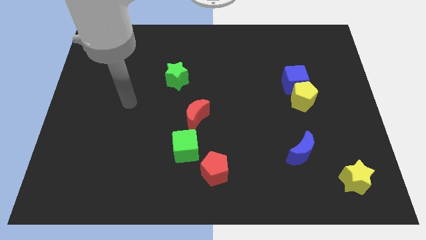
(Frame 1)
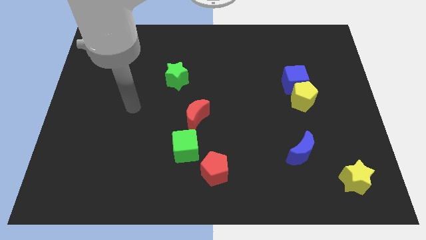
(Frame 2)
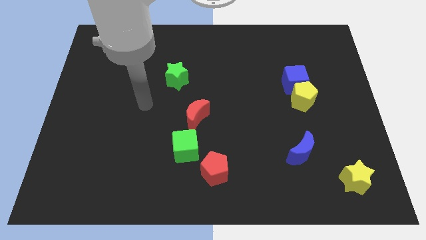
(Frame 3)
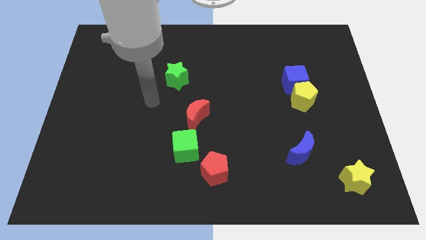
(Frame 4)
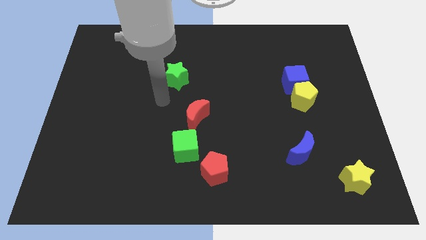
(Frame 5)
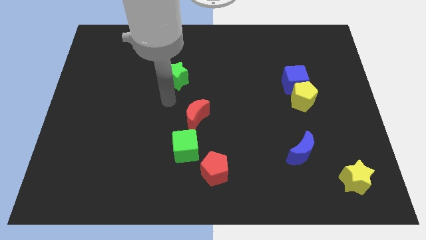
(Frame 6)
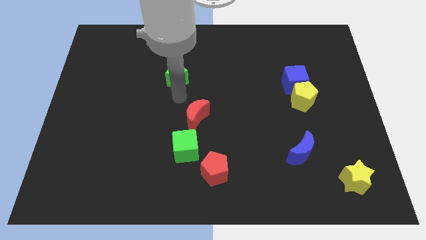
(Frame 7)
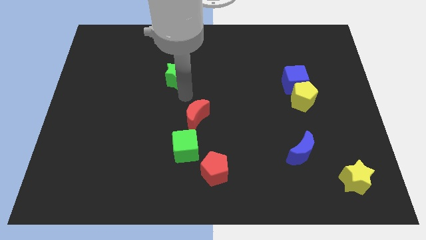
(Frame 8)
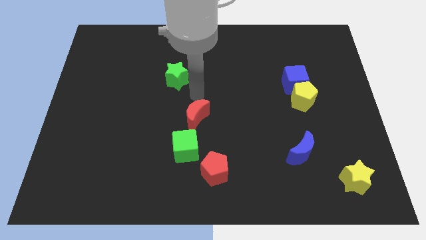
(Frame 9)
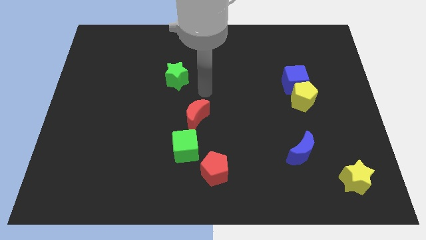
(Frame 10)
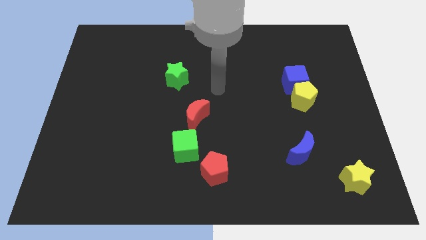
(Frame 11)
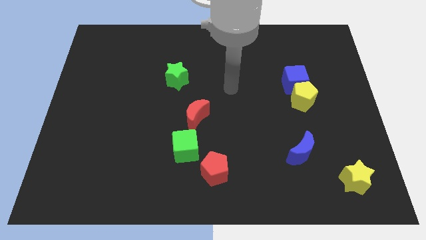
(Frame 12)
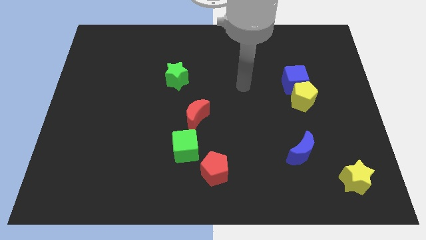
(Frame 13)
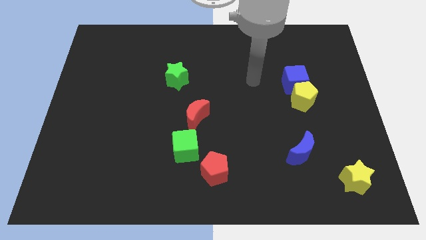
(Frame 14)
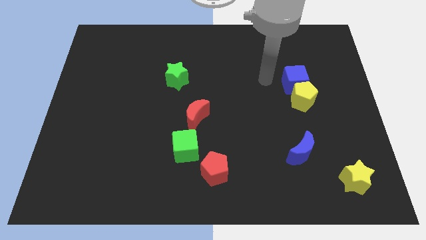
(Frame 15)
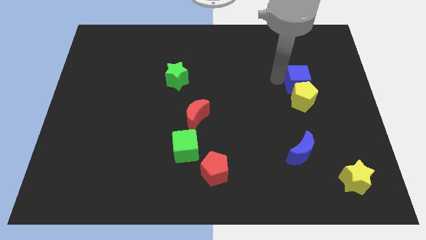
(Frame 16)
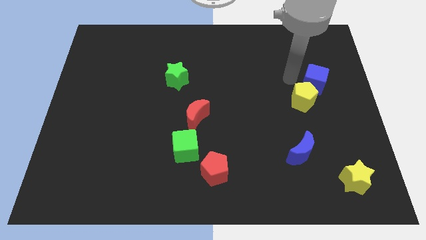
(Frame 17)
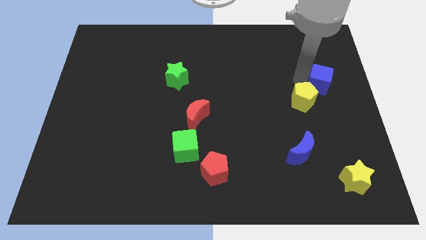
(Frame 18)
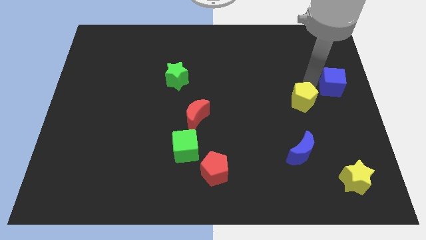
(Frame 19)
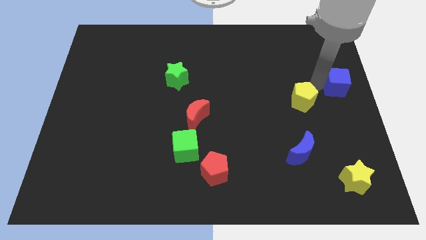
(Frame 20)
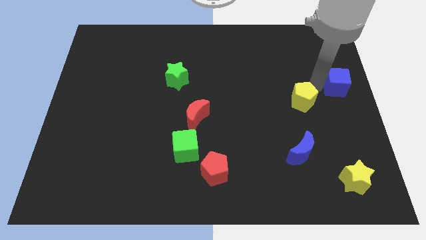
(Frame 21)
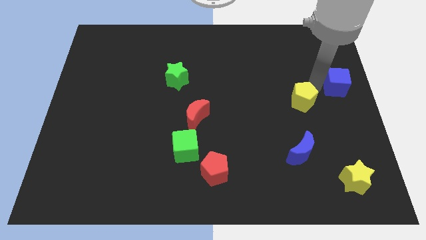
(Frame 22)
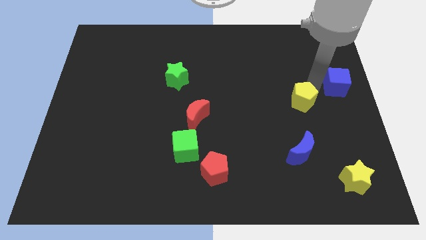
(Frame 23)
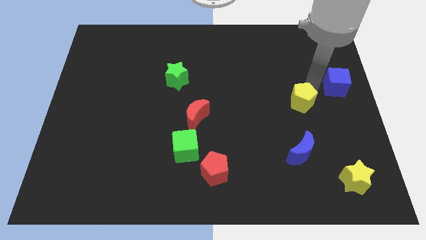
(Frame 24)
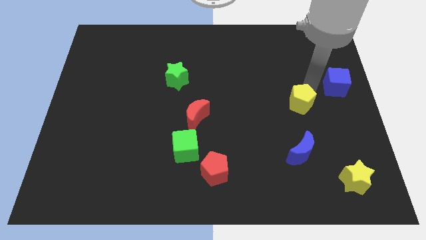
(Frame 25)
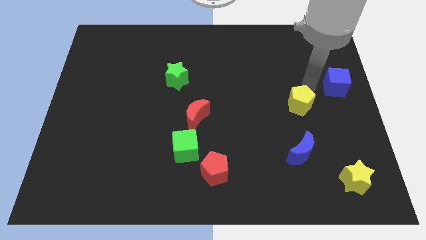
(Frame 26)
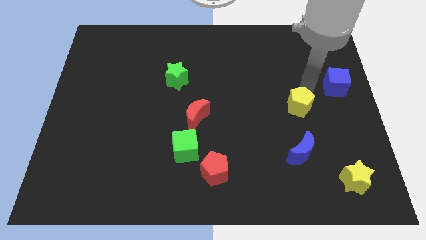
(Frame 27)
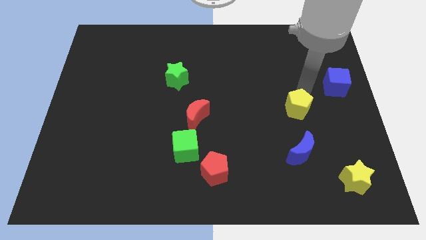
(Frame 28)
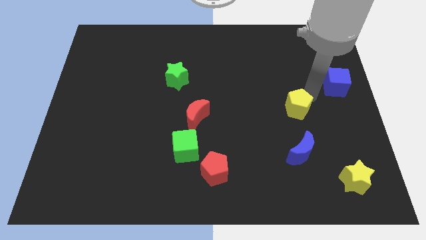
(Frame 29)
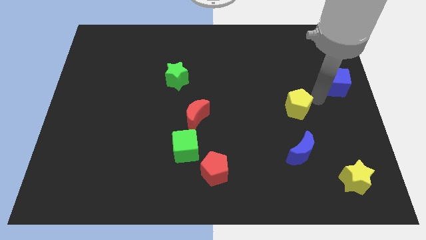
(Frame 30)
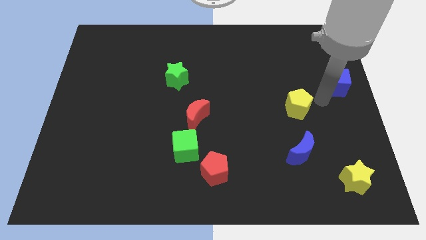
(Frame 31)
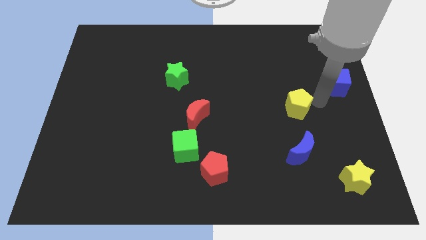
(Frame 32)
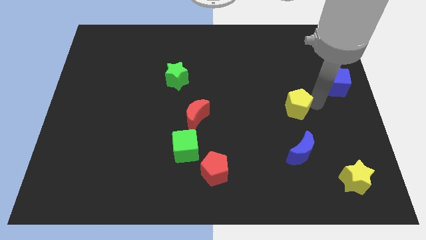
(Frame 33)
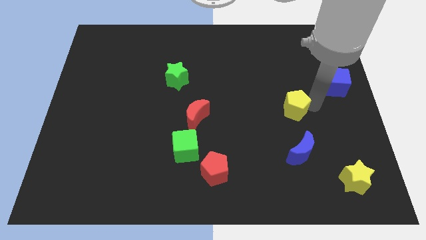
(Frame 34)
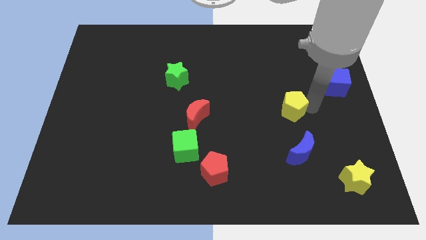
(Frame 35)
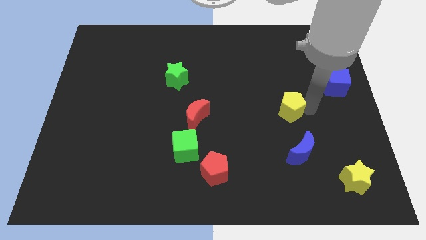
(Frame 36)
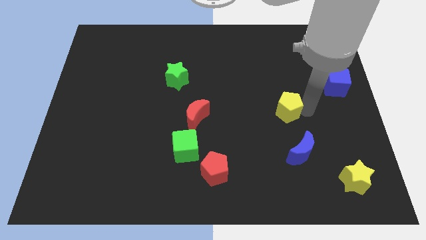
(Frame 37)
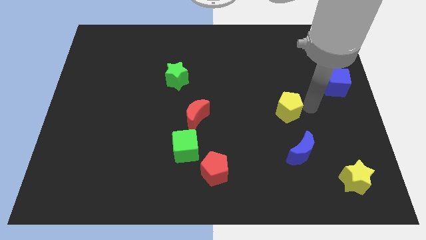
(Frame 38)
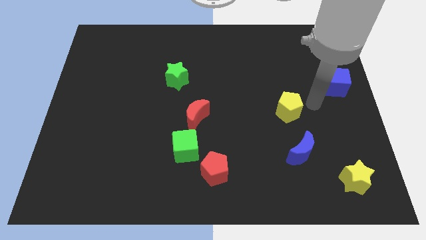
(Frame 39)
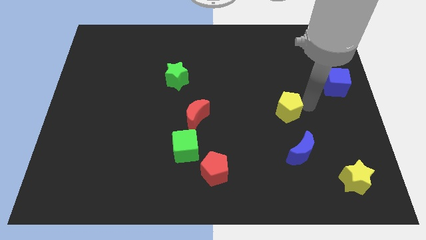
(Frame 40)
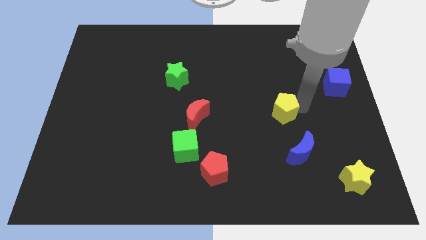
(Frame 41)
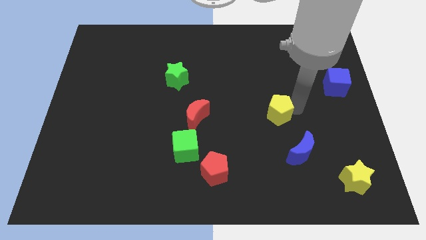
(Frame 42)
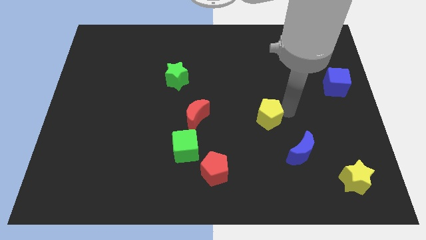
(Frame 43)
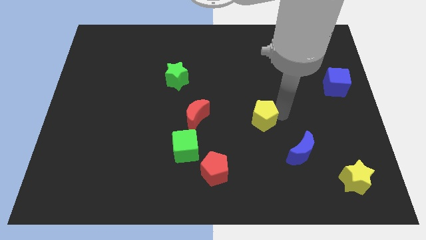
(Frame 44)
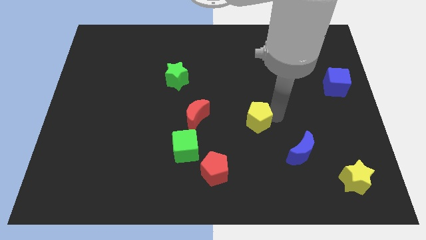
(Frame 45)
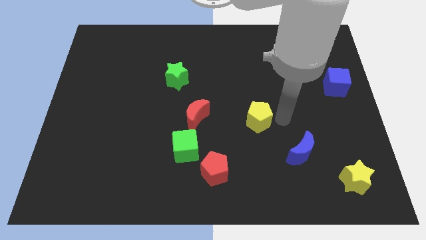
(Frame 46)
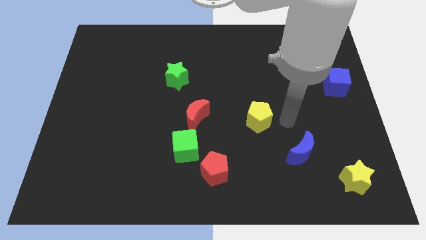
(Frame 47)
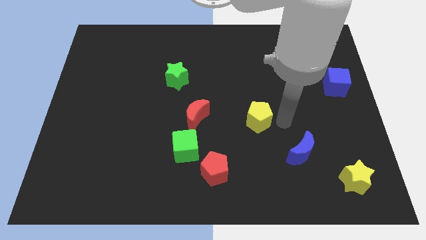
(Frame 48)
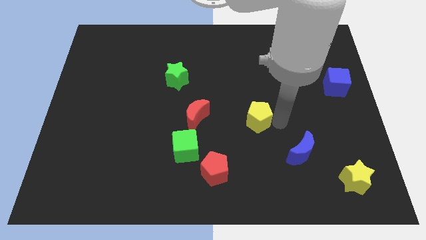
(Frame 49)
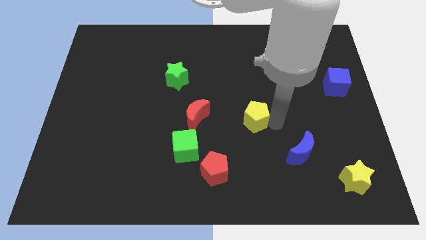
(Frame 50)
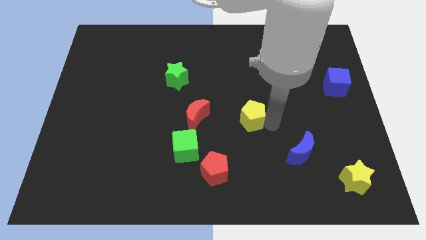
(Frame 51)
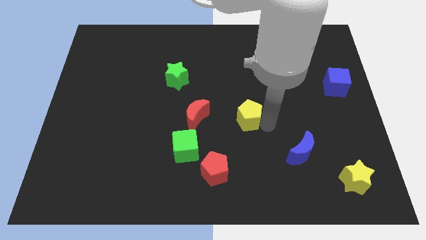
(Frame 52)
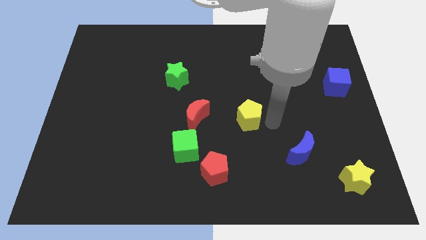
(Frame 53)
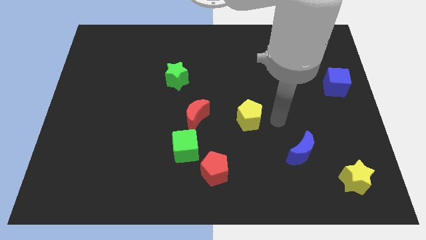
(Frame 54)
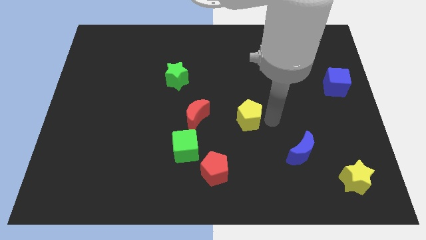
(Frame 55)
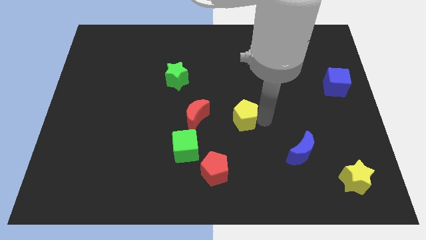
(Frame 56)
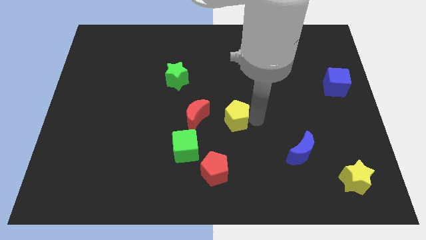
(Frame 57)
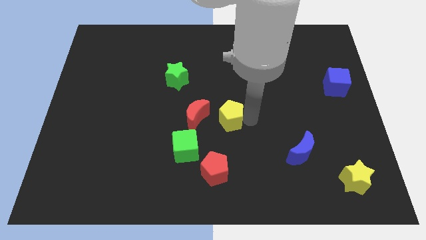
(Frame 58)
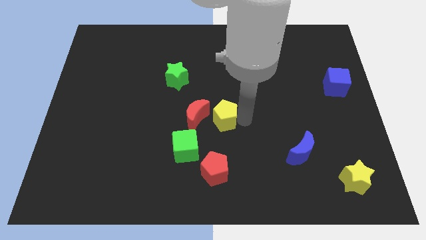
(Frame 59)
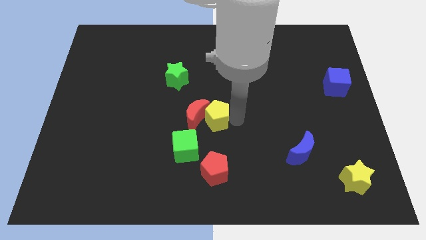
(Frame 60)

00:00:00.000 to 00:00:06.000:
put the yellow pentagon towards the red moon

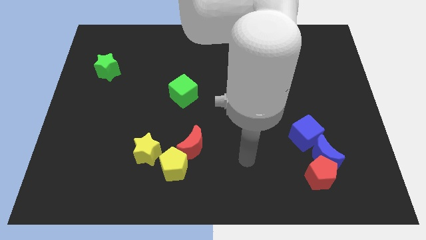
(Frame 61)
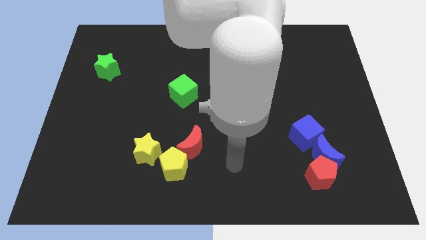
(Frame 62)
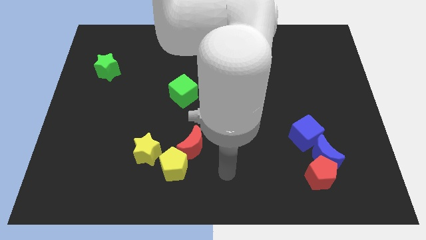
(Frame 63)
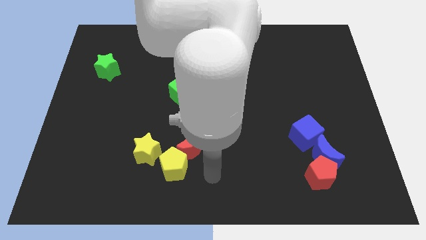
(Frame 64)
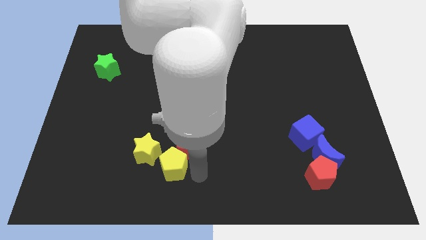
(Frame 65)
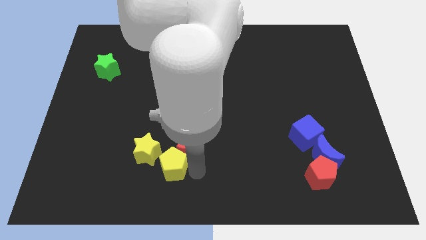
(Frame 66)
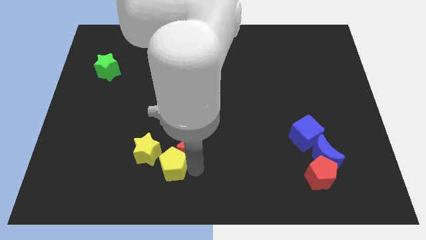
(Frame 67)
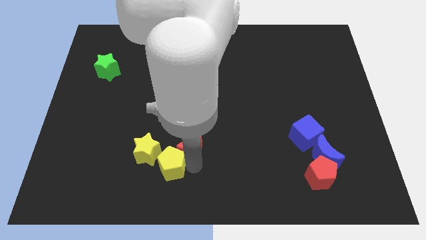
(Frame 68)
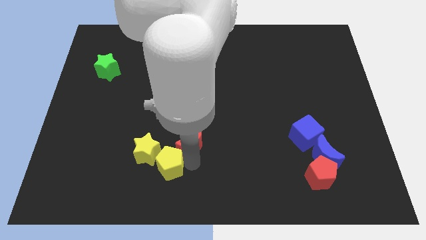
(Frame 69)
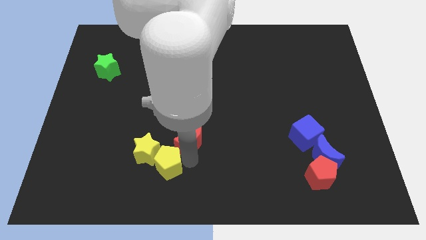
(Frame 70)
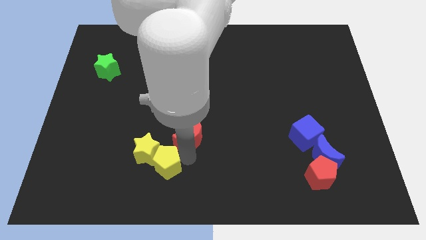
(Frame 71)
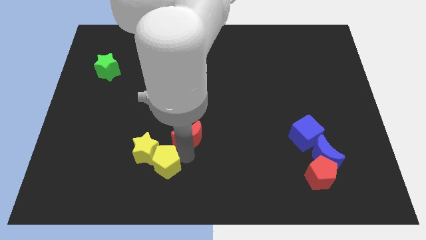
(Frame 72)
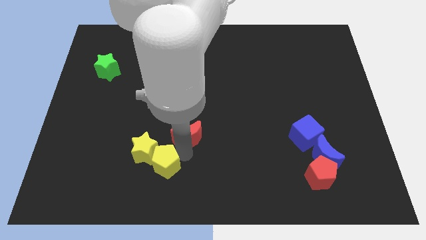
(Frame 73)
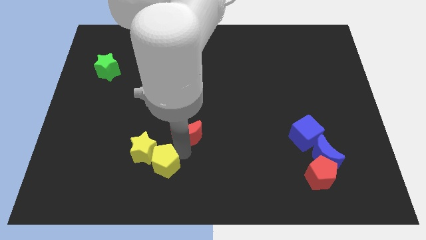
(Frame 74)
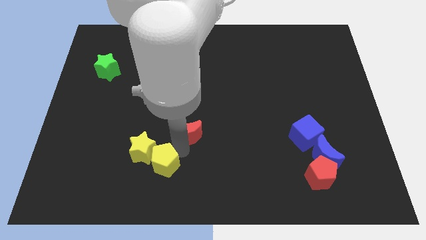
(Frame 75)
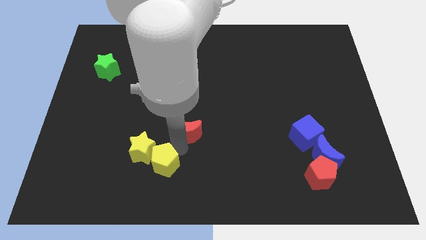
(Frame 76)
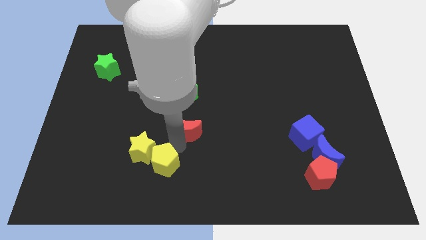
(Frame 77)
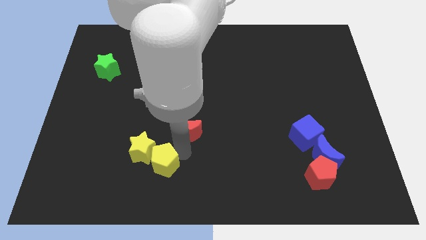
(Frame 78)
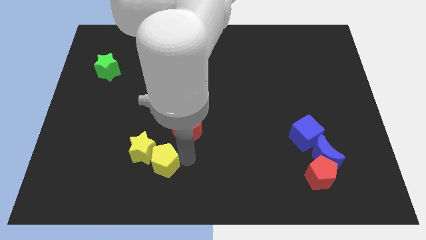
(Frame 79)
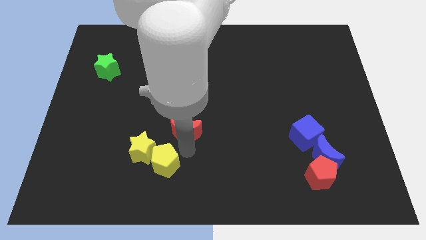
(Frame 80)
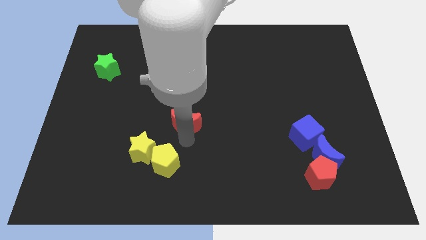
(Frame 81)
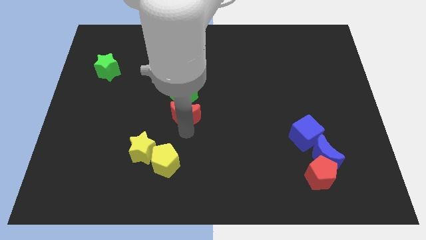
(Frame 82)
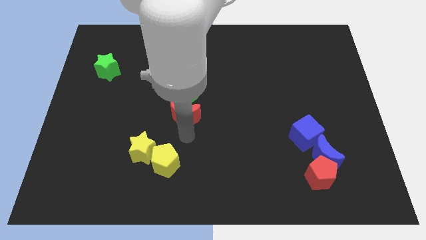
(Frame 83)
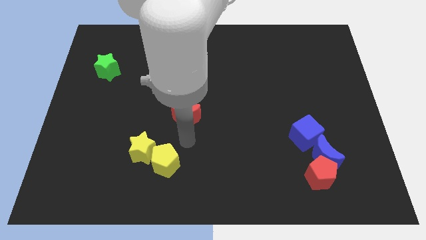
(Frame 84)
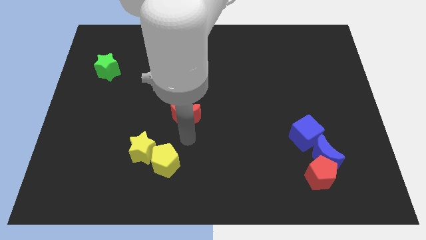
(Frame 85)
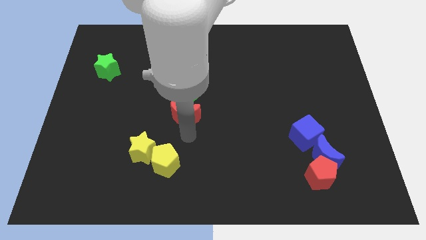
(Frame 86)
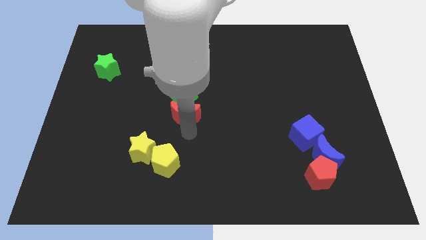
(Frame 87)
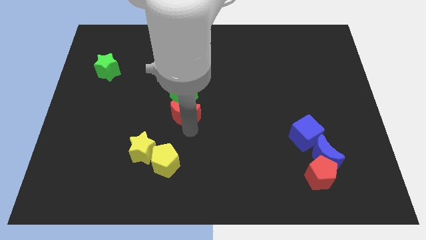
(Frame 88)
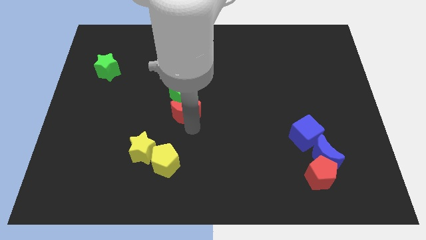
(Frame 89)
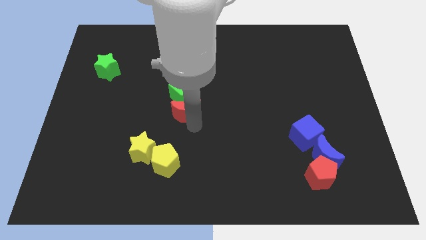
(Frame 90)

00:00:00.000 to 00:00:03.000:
slide the red moon close to the green cube
